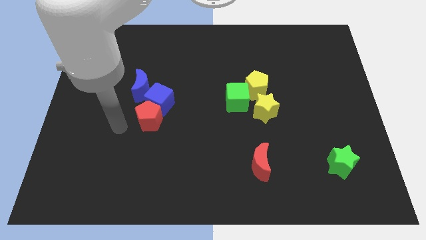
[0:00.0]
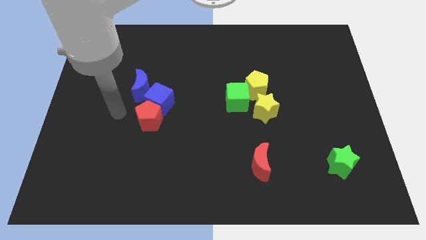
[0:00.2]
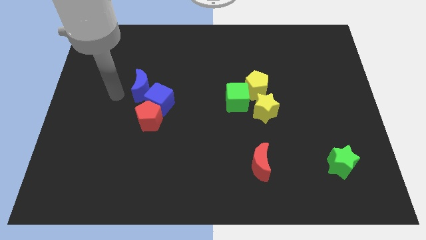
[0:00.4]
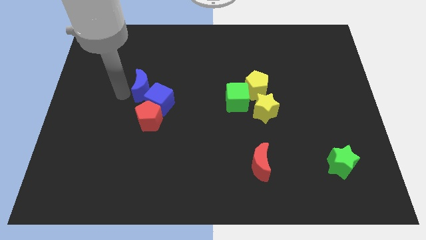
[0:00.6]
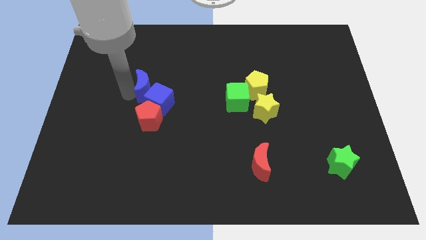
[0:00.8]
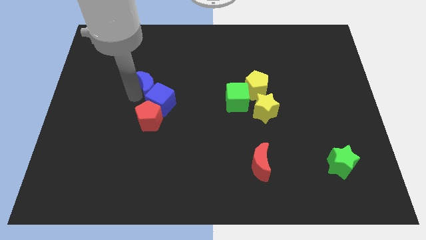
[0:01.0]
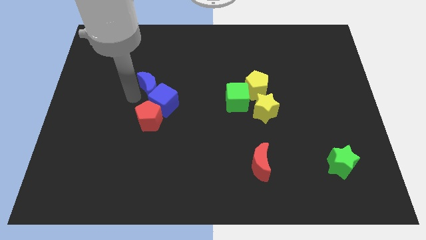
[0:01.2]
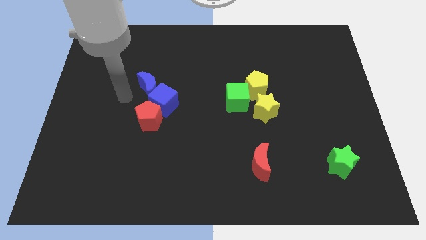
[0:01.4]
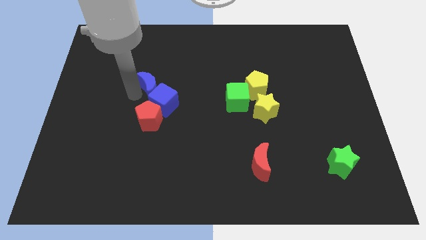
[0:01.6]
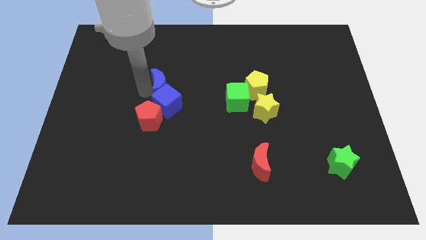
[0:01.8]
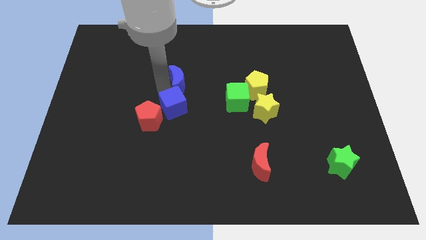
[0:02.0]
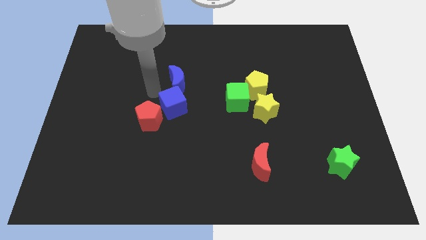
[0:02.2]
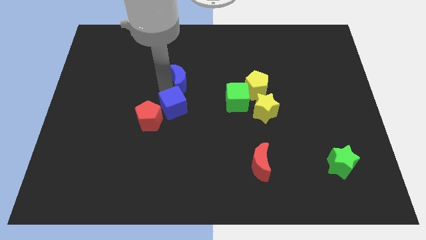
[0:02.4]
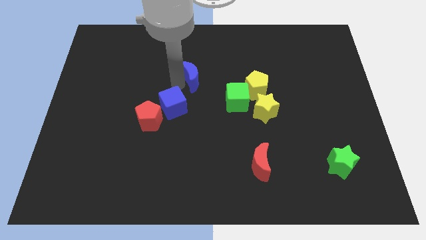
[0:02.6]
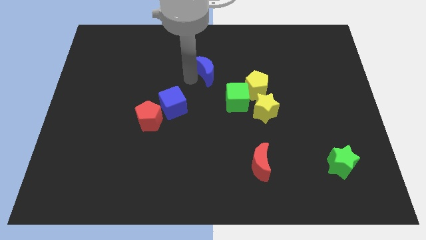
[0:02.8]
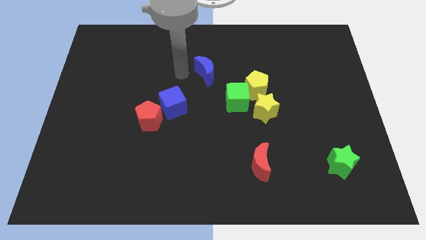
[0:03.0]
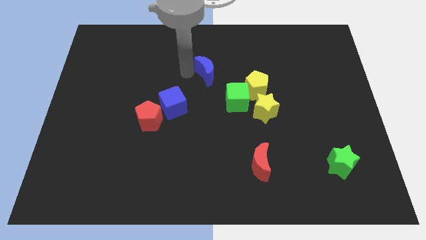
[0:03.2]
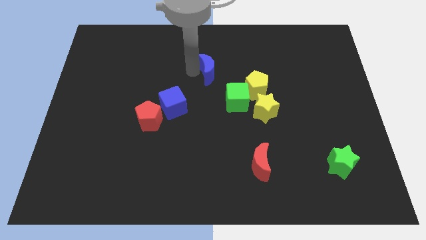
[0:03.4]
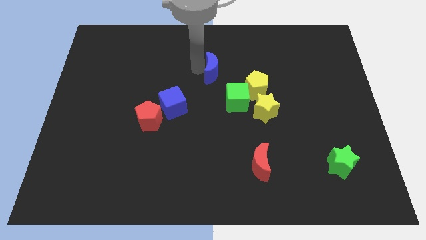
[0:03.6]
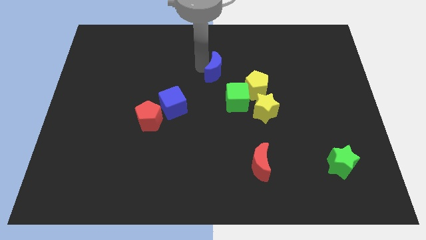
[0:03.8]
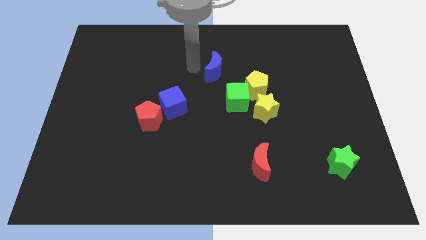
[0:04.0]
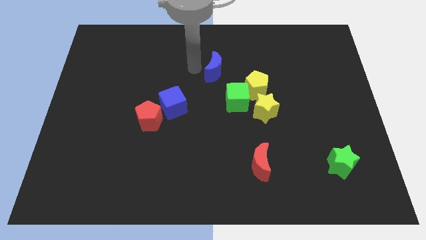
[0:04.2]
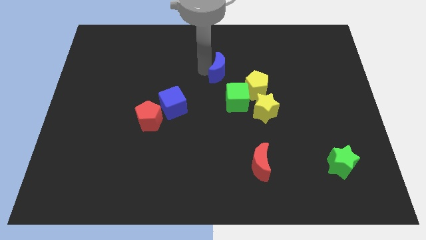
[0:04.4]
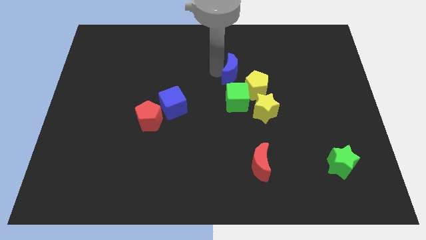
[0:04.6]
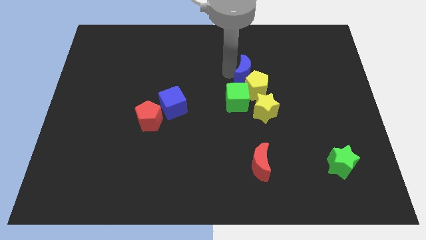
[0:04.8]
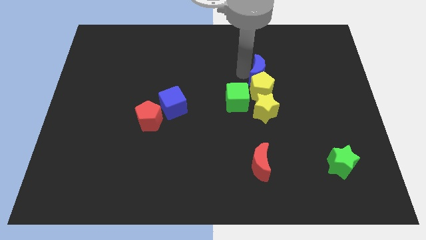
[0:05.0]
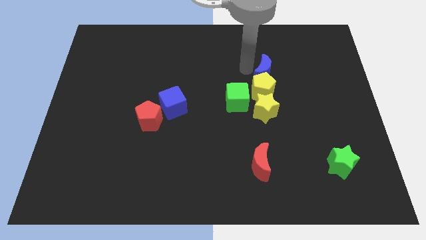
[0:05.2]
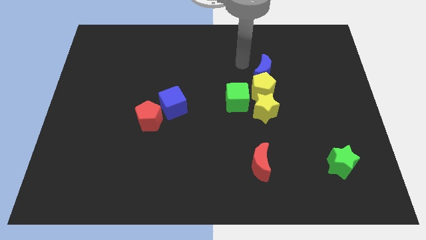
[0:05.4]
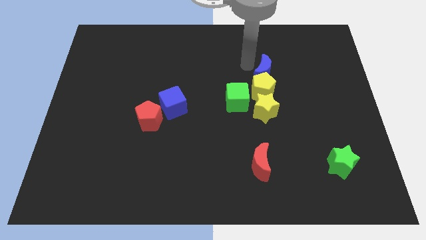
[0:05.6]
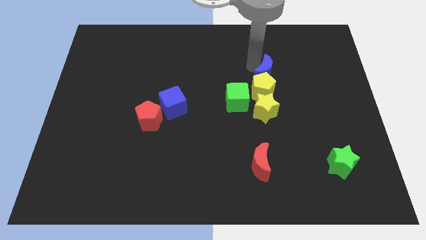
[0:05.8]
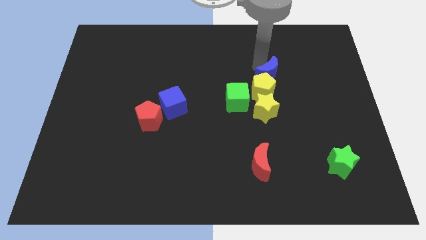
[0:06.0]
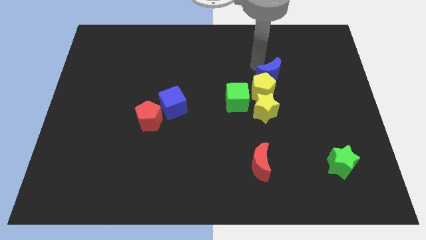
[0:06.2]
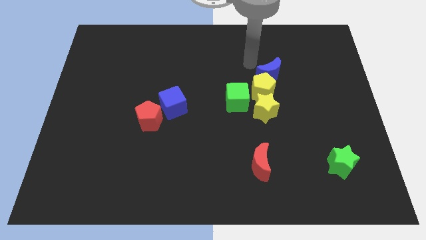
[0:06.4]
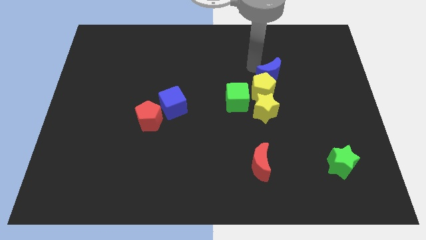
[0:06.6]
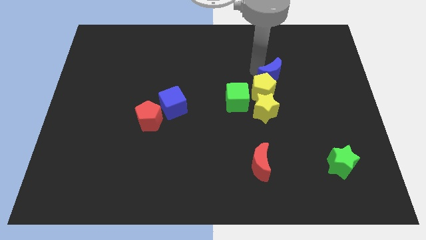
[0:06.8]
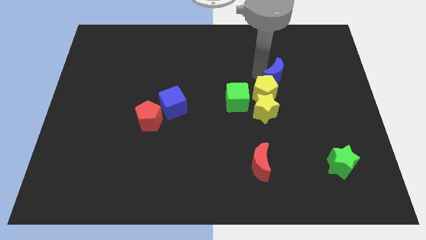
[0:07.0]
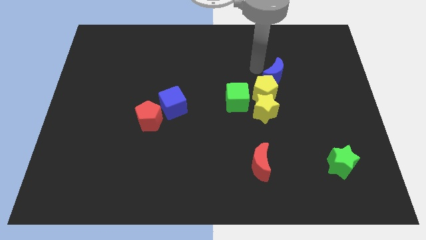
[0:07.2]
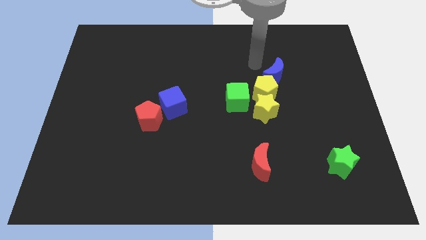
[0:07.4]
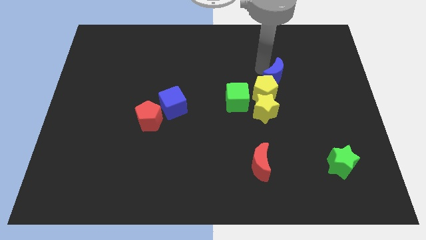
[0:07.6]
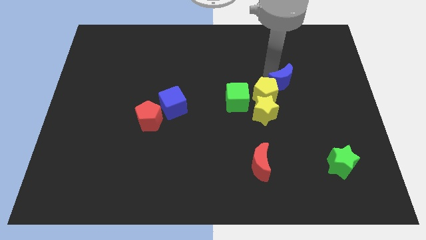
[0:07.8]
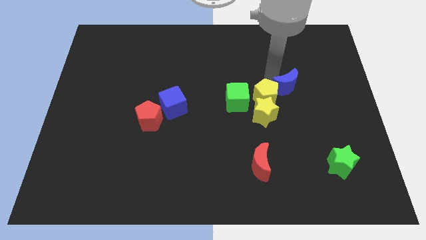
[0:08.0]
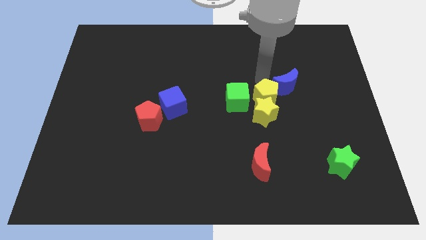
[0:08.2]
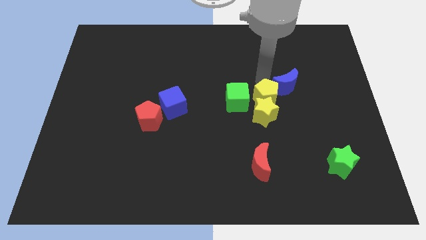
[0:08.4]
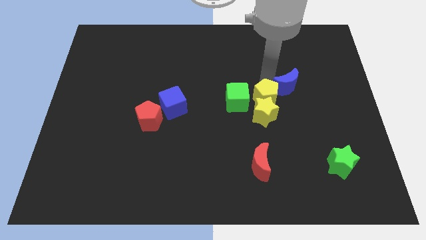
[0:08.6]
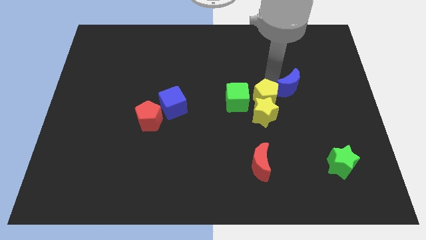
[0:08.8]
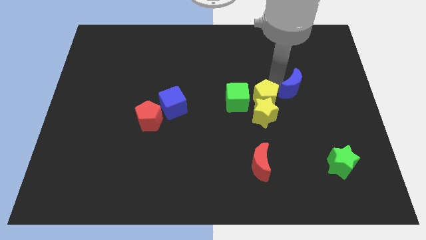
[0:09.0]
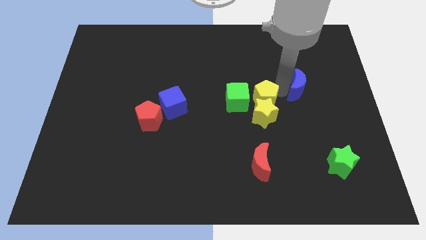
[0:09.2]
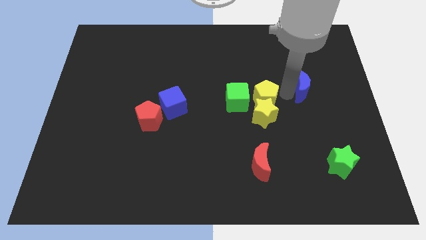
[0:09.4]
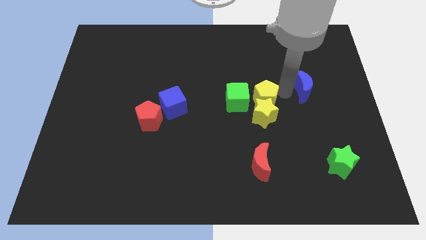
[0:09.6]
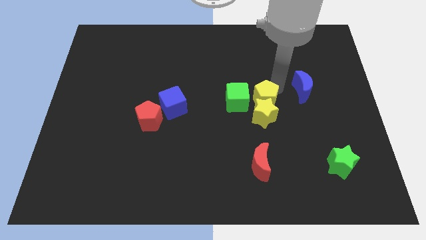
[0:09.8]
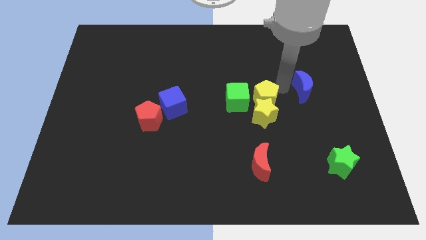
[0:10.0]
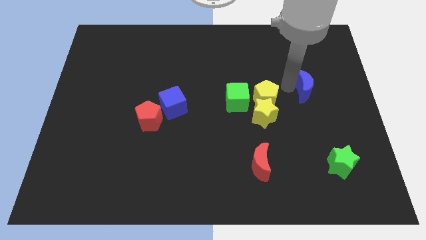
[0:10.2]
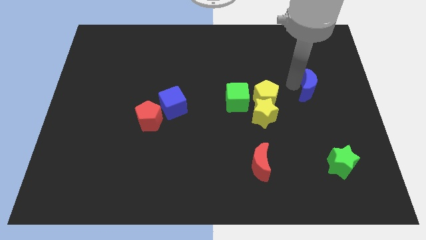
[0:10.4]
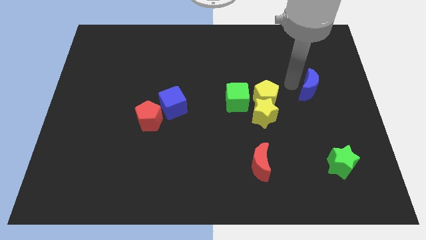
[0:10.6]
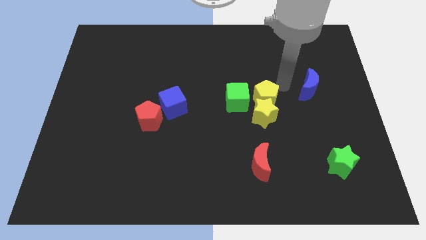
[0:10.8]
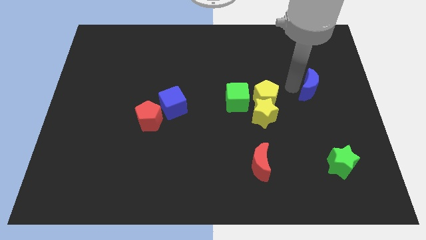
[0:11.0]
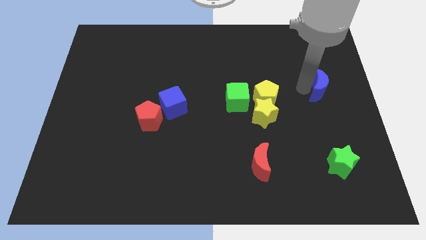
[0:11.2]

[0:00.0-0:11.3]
push the blue moon to the center right
